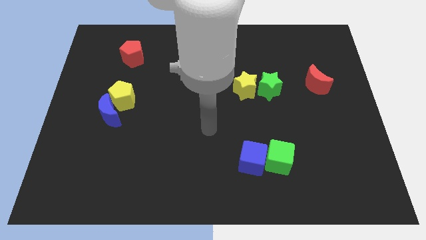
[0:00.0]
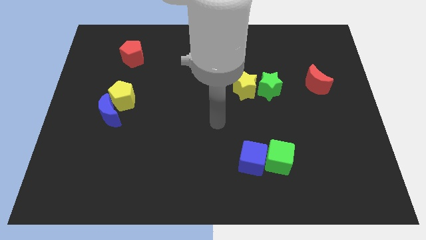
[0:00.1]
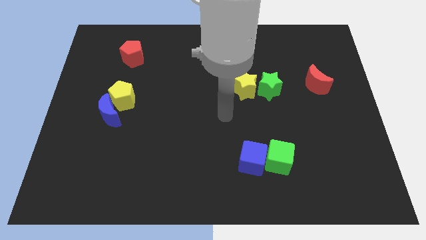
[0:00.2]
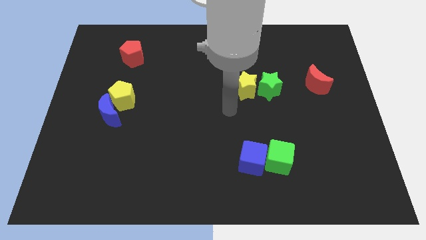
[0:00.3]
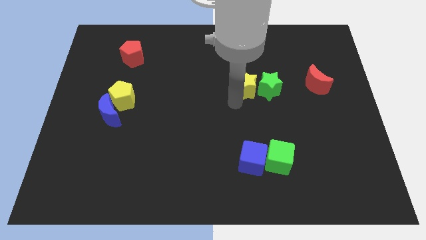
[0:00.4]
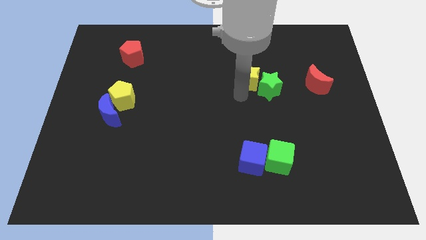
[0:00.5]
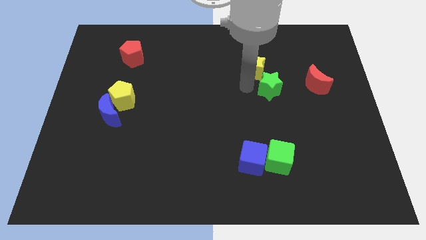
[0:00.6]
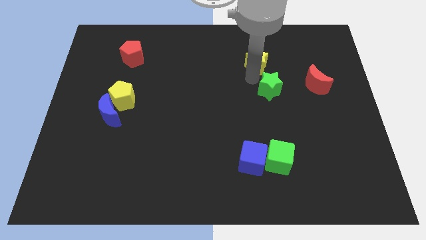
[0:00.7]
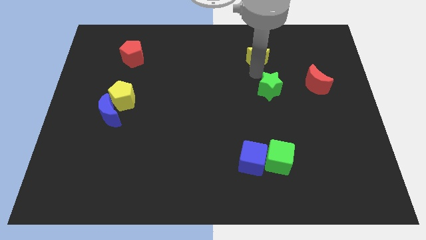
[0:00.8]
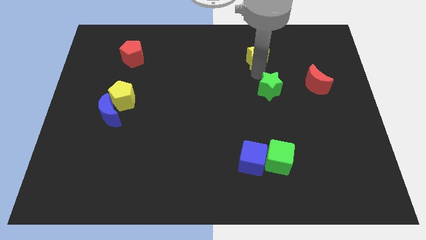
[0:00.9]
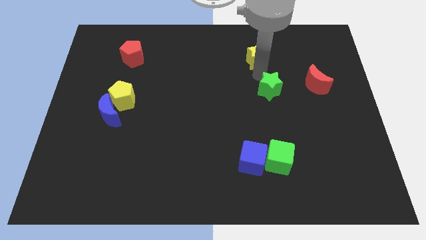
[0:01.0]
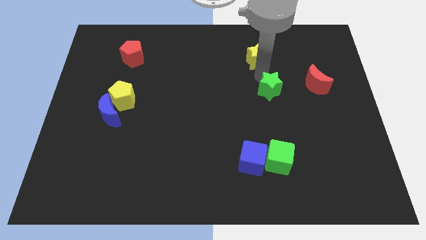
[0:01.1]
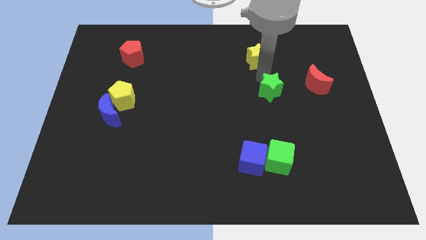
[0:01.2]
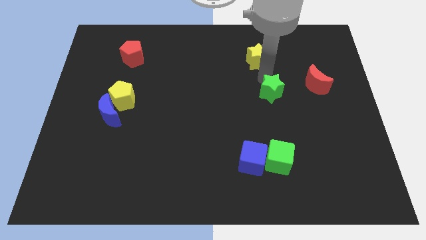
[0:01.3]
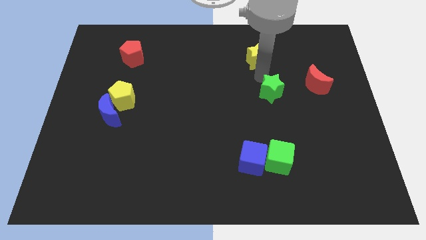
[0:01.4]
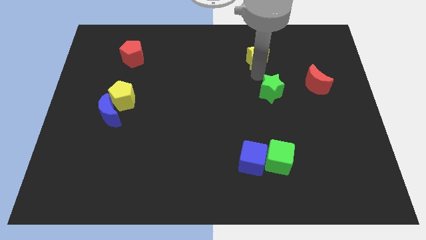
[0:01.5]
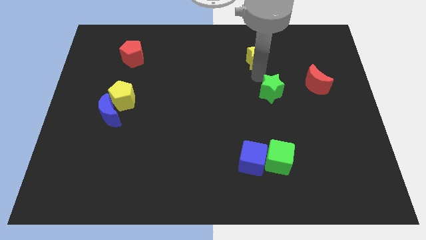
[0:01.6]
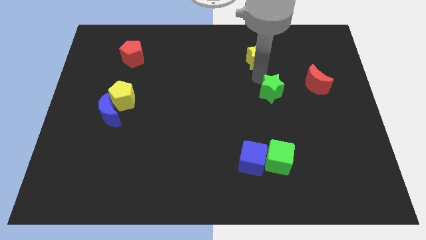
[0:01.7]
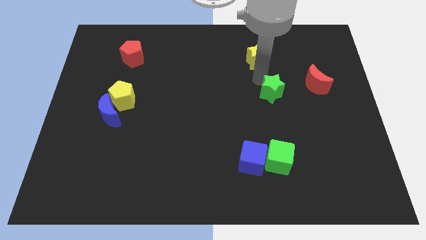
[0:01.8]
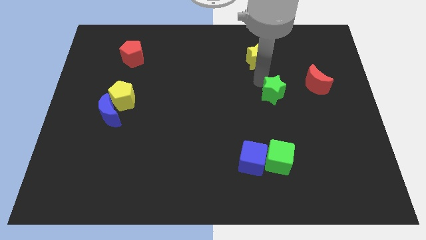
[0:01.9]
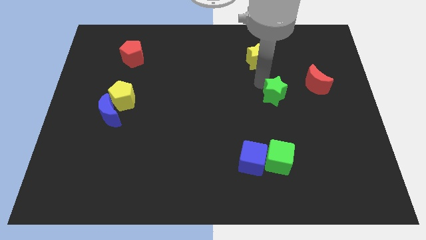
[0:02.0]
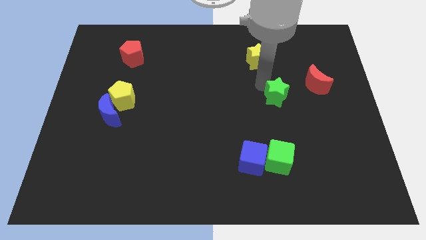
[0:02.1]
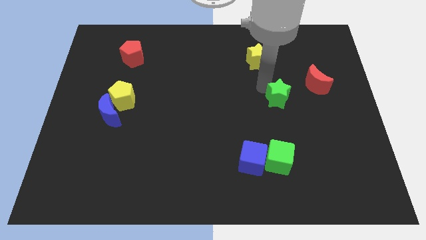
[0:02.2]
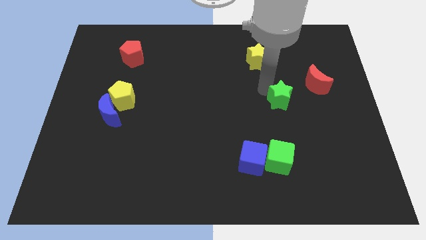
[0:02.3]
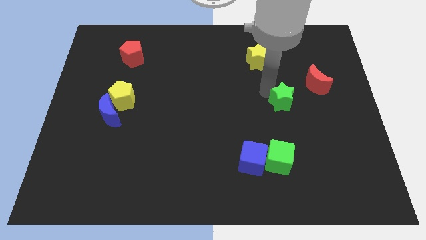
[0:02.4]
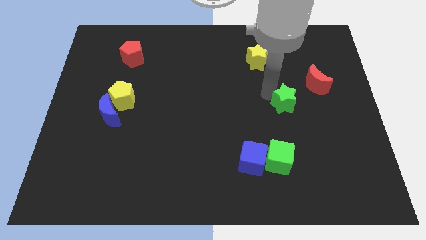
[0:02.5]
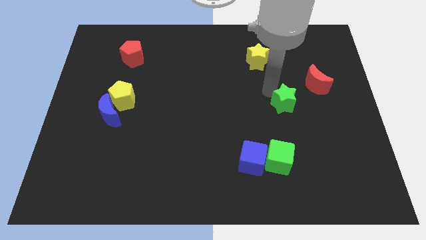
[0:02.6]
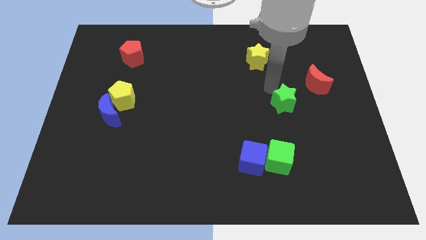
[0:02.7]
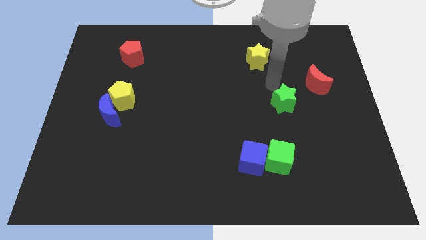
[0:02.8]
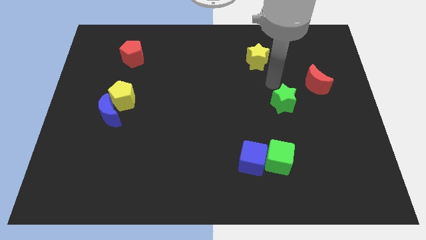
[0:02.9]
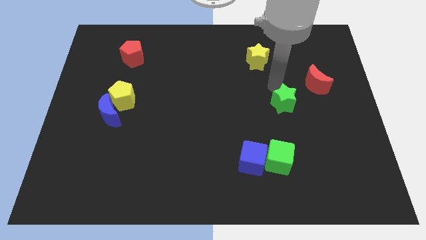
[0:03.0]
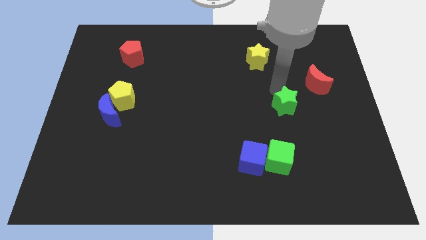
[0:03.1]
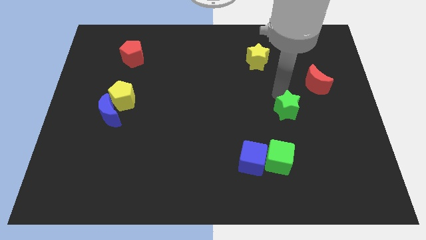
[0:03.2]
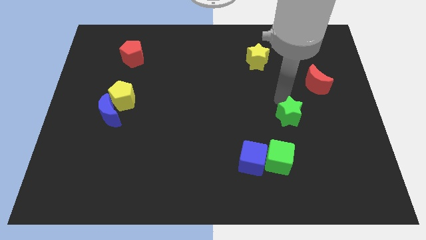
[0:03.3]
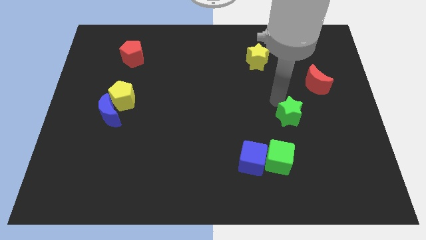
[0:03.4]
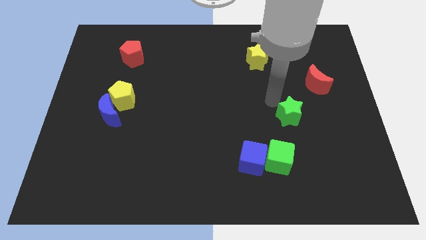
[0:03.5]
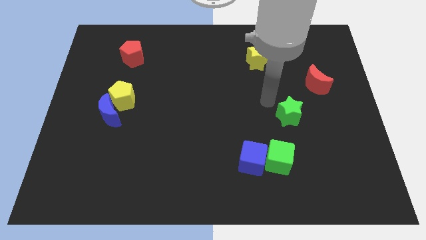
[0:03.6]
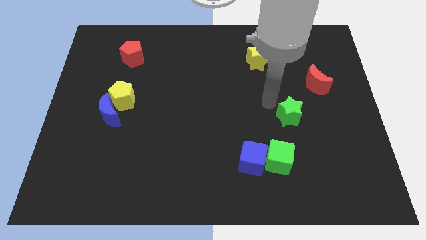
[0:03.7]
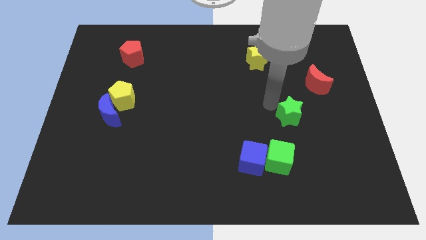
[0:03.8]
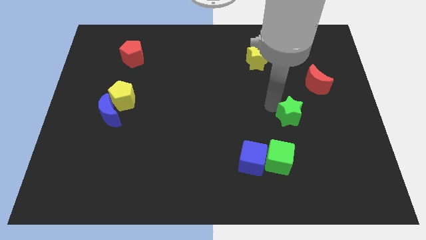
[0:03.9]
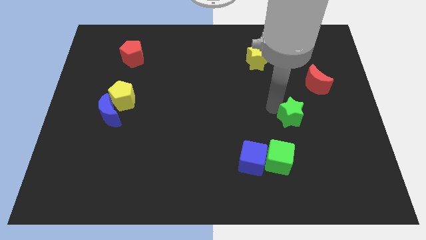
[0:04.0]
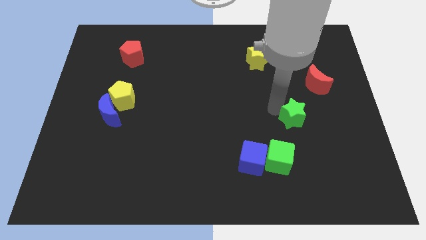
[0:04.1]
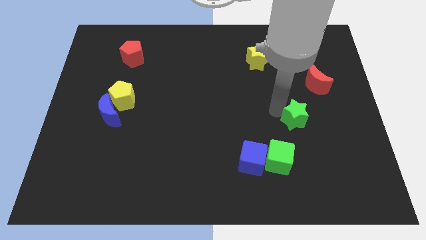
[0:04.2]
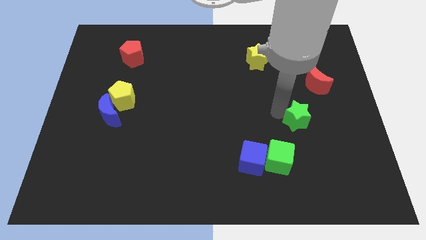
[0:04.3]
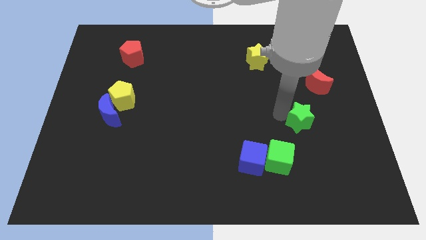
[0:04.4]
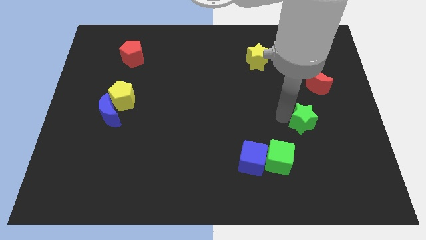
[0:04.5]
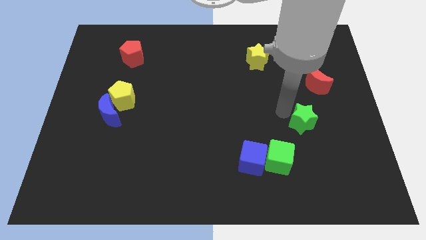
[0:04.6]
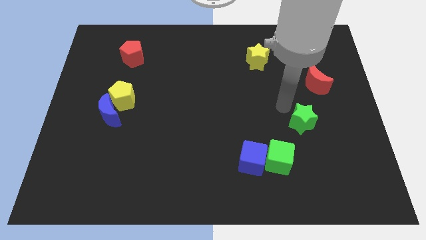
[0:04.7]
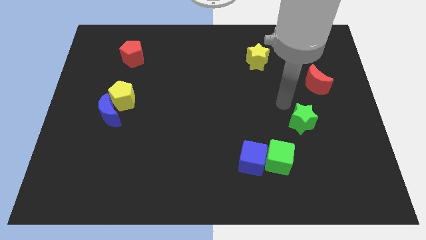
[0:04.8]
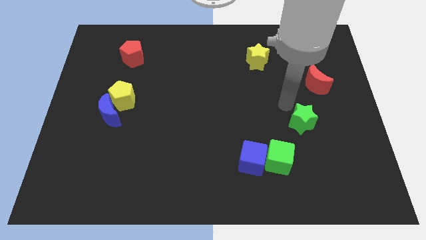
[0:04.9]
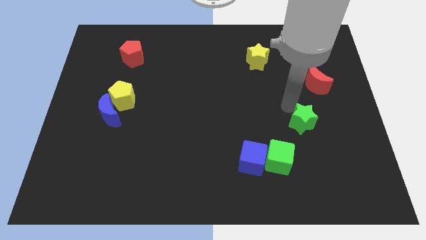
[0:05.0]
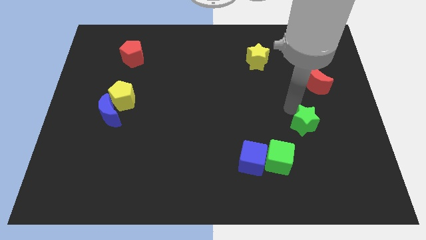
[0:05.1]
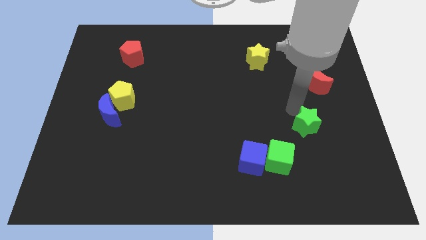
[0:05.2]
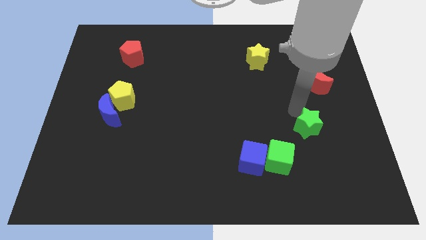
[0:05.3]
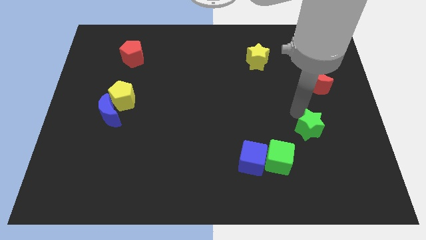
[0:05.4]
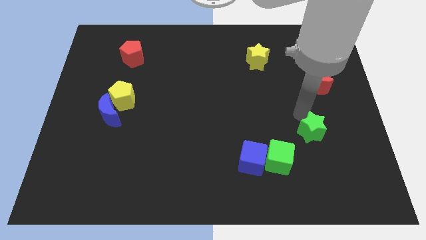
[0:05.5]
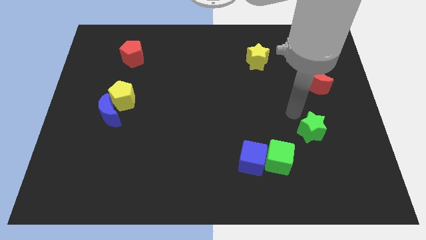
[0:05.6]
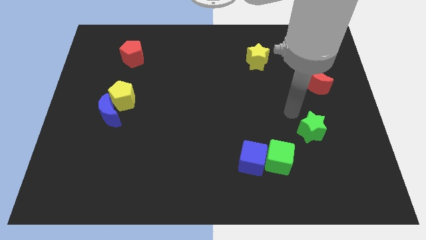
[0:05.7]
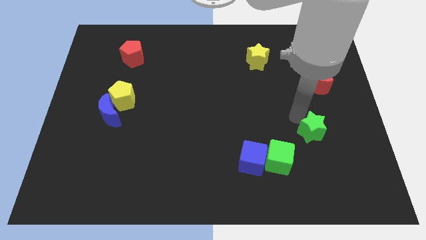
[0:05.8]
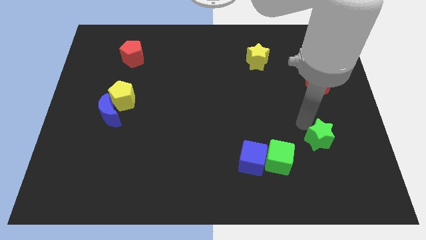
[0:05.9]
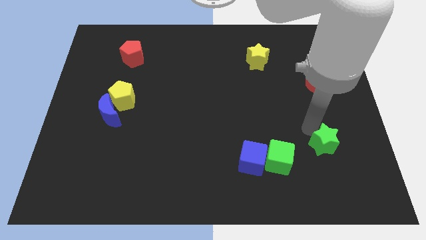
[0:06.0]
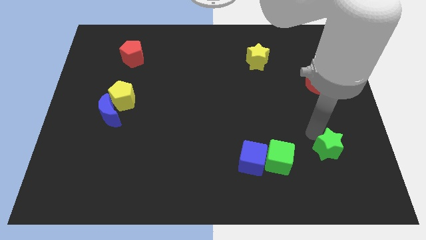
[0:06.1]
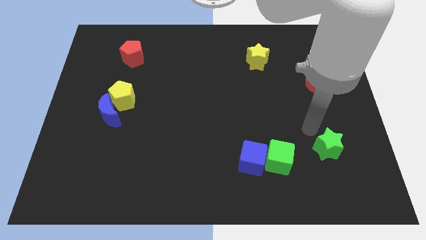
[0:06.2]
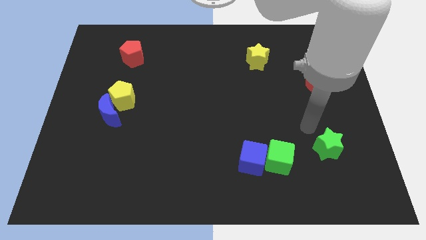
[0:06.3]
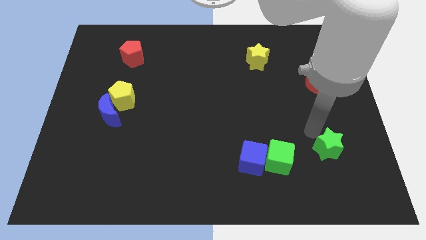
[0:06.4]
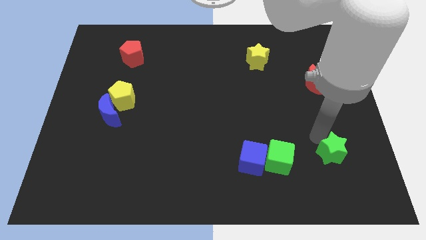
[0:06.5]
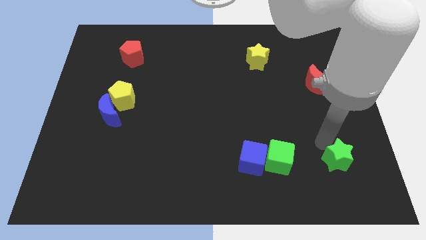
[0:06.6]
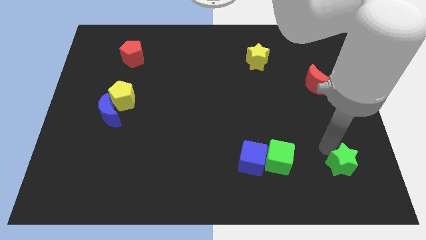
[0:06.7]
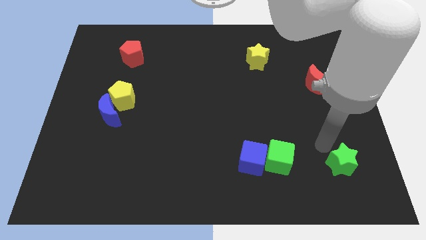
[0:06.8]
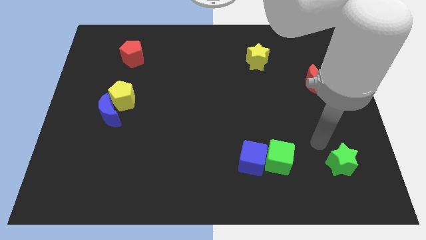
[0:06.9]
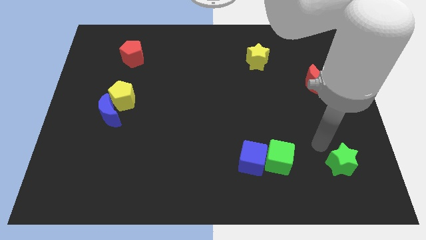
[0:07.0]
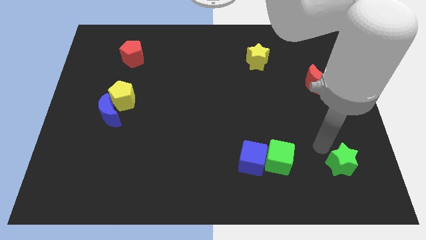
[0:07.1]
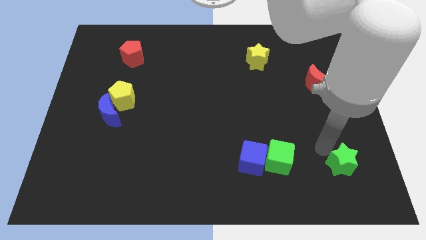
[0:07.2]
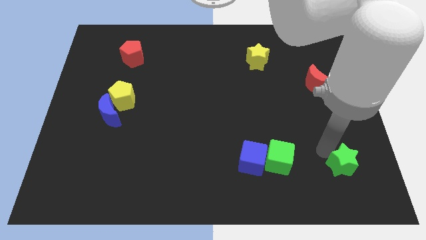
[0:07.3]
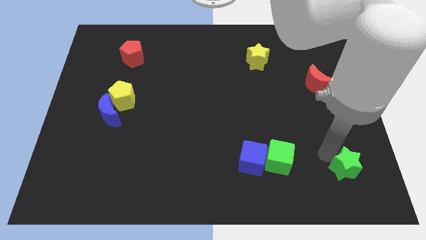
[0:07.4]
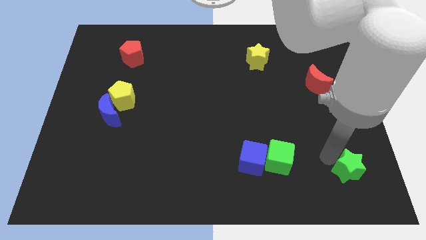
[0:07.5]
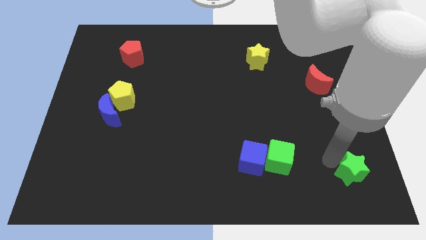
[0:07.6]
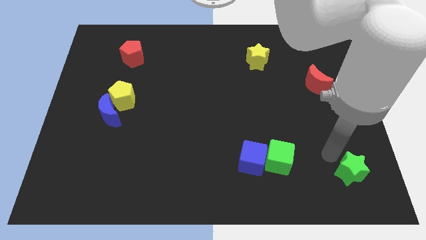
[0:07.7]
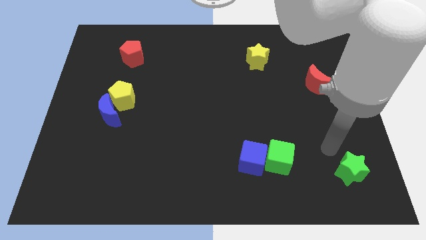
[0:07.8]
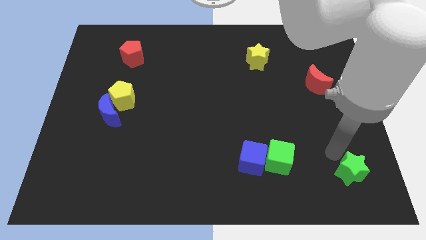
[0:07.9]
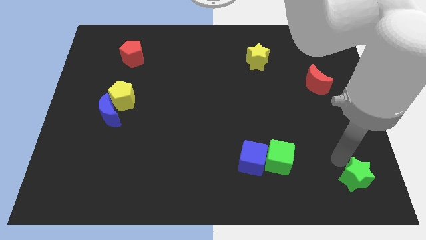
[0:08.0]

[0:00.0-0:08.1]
move the green star to the lower right corner
